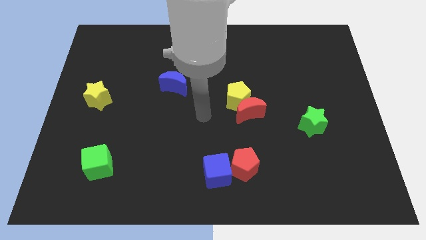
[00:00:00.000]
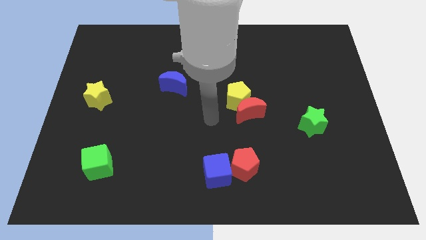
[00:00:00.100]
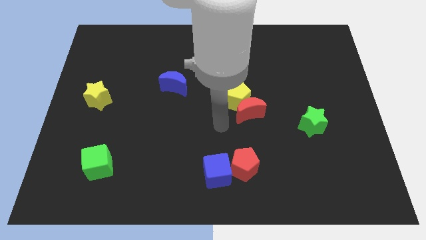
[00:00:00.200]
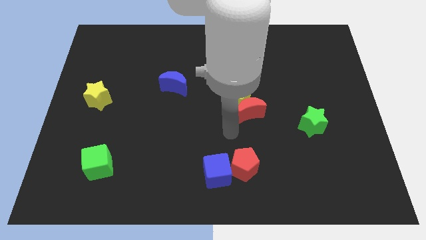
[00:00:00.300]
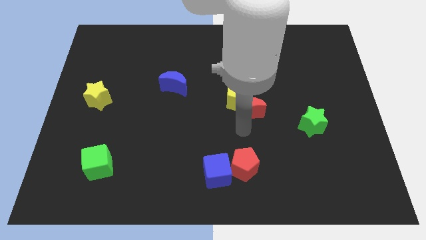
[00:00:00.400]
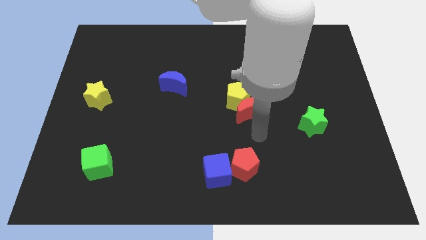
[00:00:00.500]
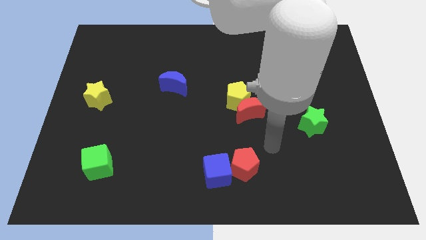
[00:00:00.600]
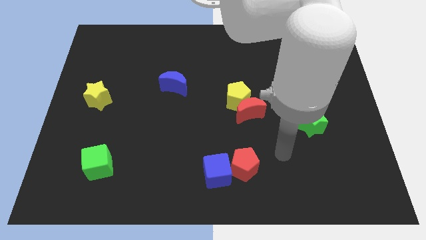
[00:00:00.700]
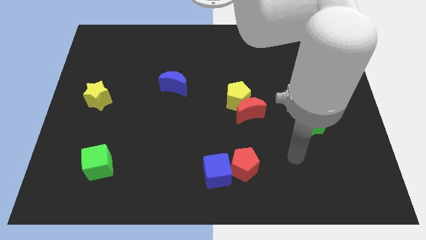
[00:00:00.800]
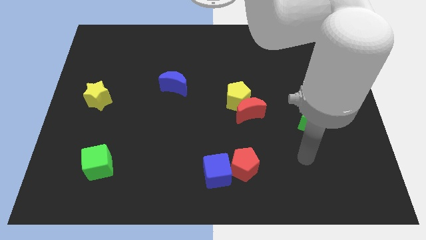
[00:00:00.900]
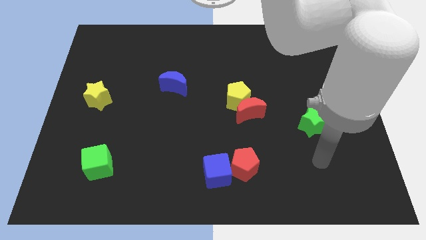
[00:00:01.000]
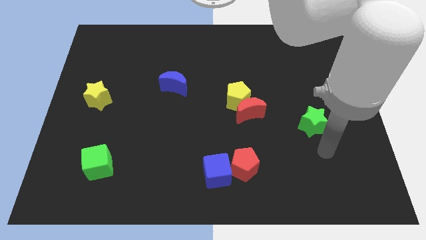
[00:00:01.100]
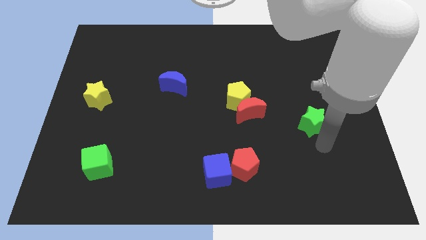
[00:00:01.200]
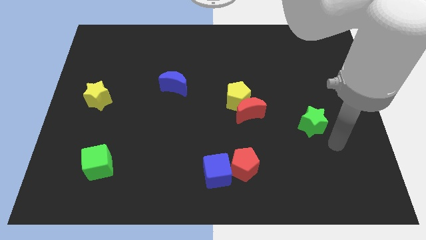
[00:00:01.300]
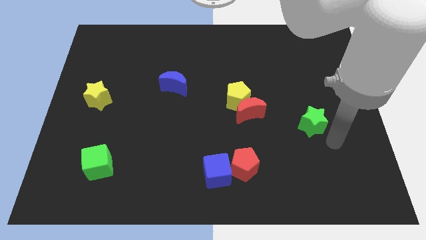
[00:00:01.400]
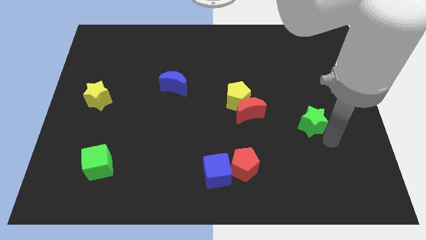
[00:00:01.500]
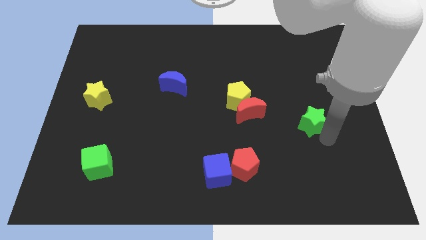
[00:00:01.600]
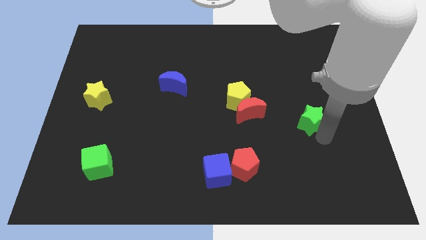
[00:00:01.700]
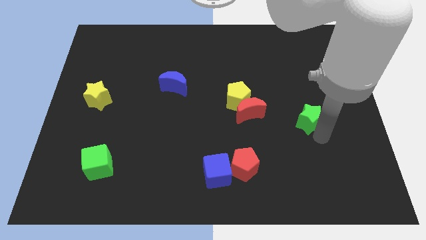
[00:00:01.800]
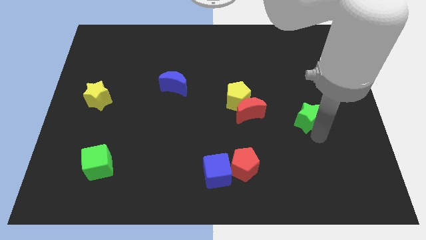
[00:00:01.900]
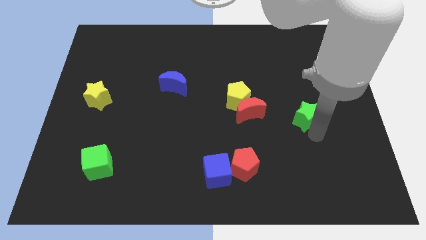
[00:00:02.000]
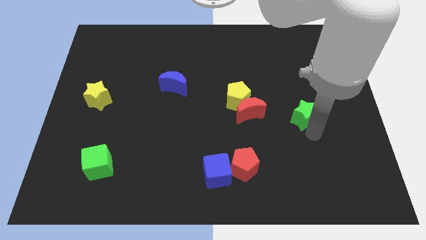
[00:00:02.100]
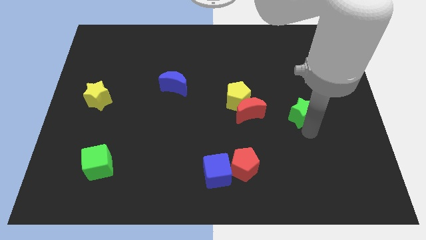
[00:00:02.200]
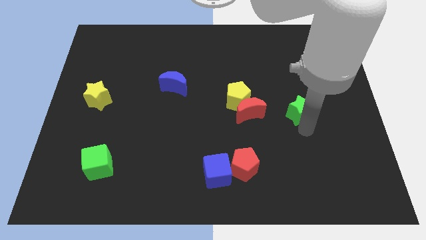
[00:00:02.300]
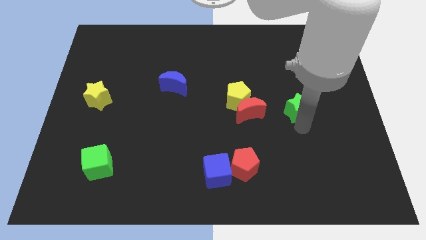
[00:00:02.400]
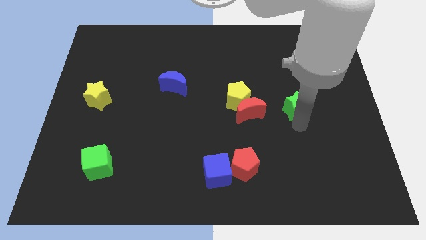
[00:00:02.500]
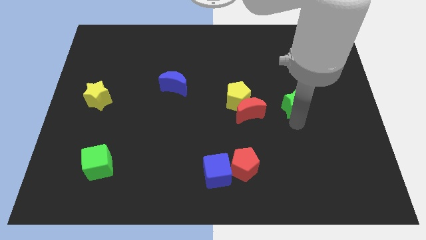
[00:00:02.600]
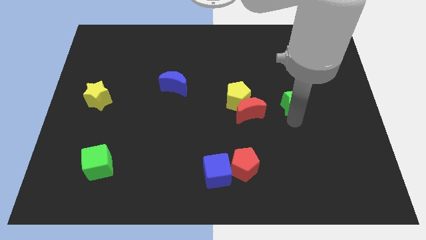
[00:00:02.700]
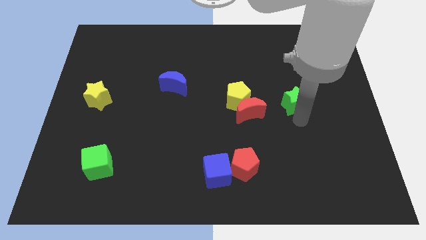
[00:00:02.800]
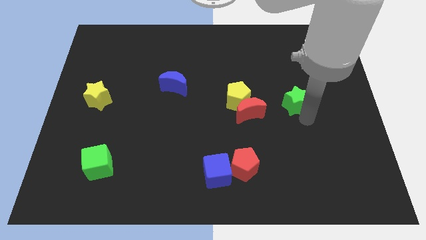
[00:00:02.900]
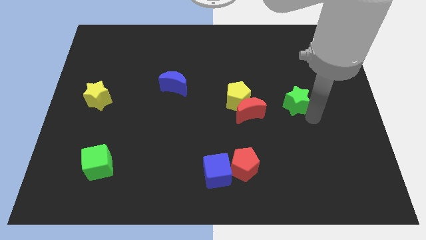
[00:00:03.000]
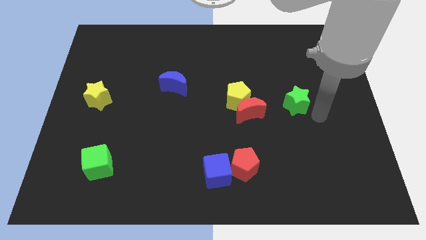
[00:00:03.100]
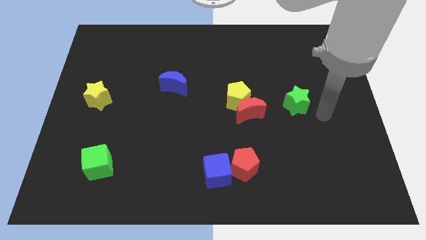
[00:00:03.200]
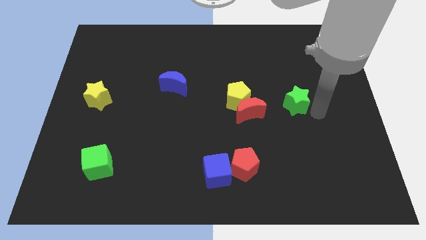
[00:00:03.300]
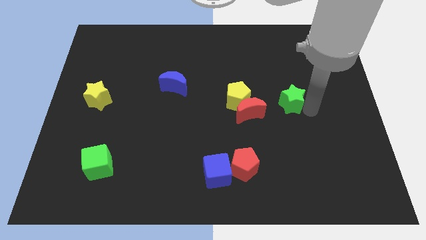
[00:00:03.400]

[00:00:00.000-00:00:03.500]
push the green star up and then to the left a little bit

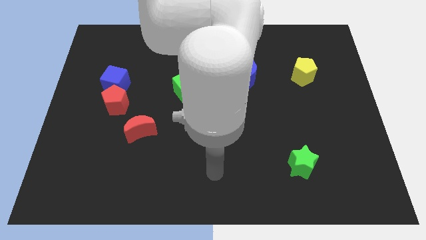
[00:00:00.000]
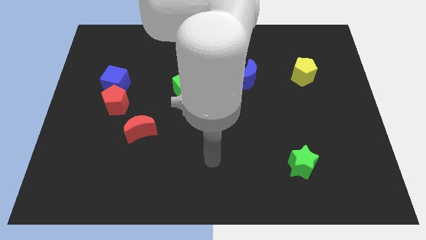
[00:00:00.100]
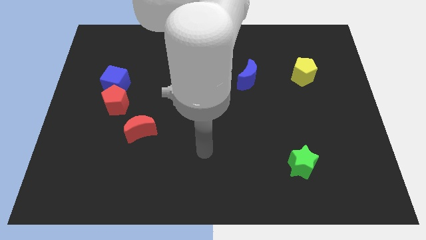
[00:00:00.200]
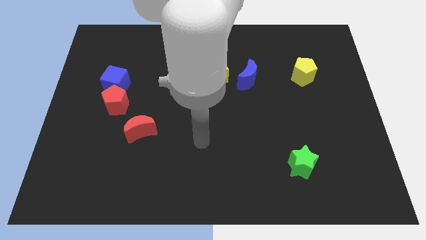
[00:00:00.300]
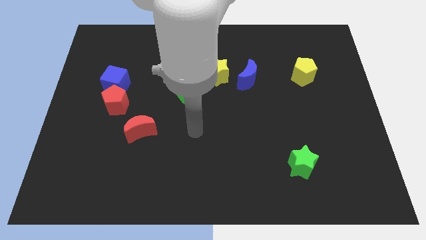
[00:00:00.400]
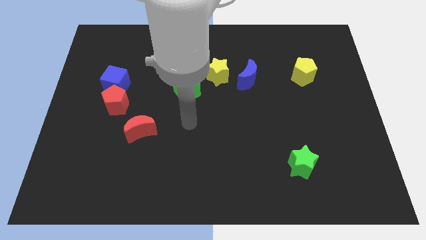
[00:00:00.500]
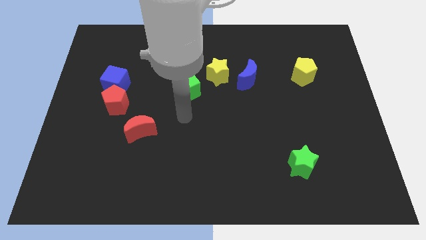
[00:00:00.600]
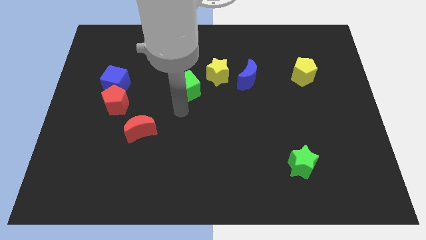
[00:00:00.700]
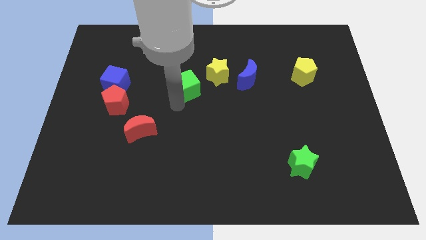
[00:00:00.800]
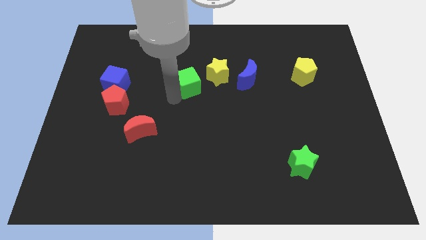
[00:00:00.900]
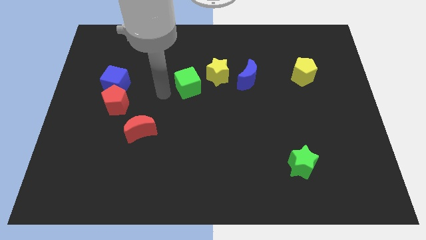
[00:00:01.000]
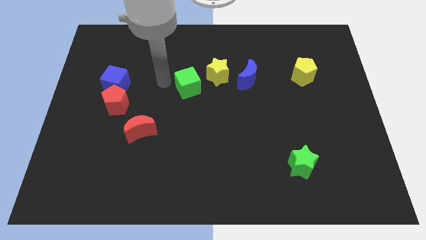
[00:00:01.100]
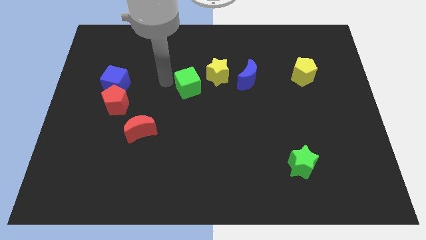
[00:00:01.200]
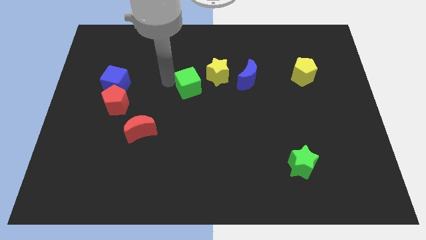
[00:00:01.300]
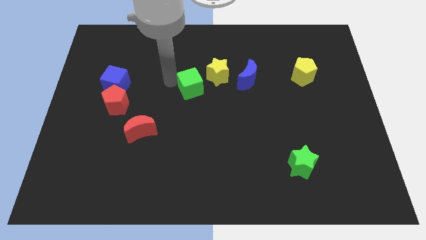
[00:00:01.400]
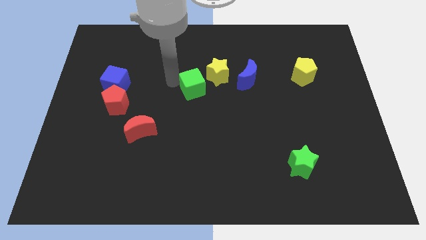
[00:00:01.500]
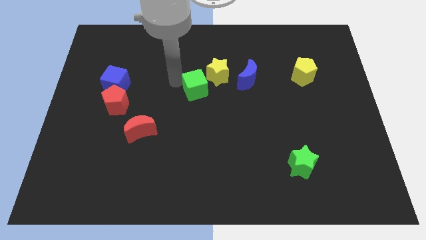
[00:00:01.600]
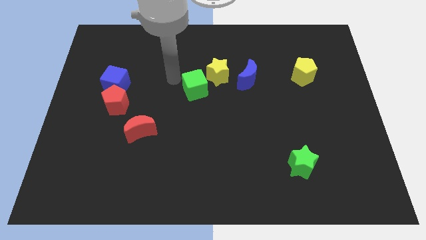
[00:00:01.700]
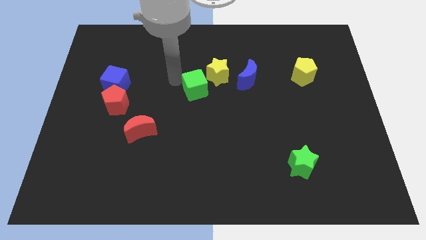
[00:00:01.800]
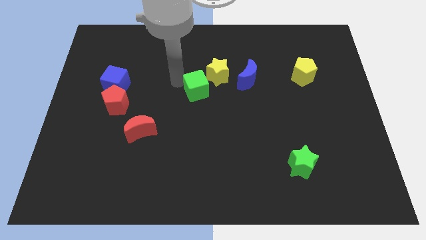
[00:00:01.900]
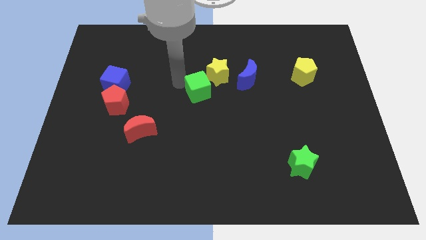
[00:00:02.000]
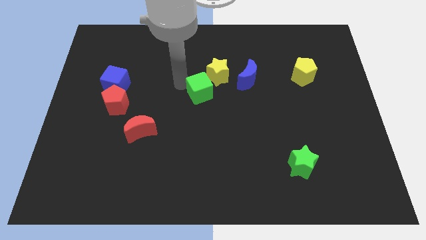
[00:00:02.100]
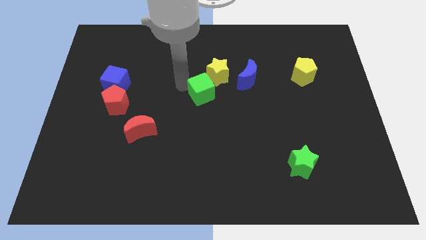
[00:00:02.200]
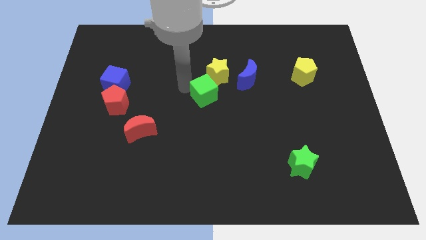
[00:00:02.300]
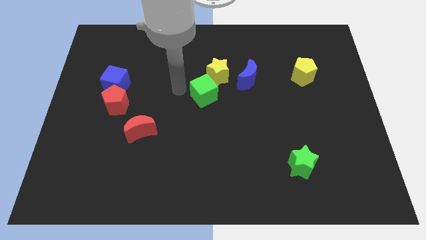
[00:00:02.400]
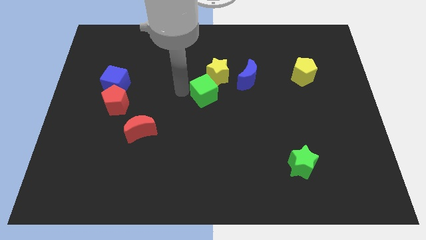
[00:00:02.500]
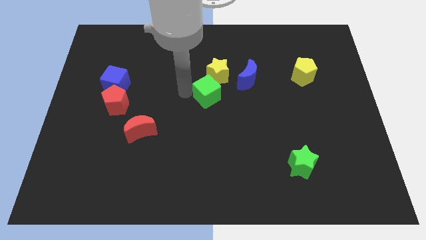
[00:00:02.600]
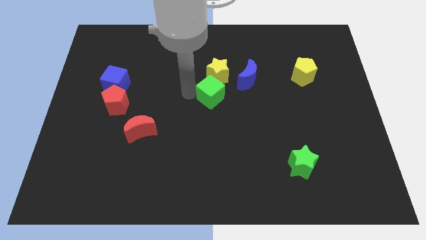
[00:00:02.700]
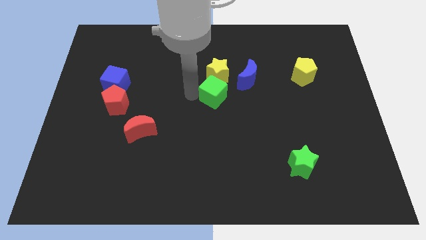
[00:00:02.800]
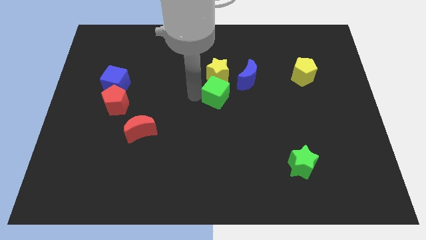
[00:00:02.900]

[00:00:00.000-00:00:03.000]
slightly slide the green cube right

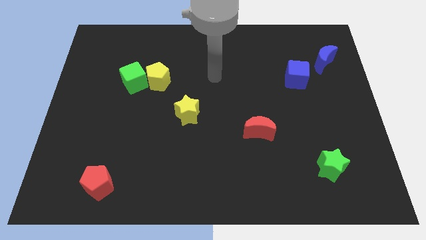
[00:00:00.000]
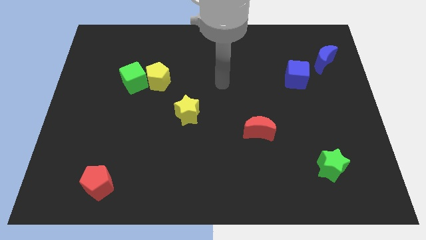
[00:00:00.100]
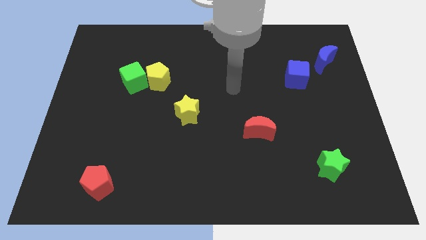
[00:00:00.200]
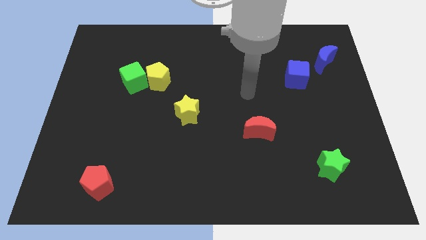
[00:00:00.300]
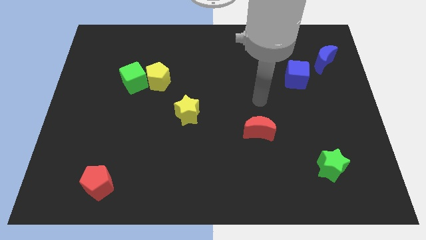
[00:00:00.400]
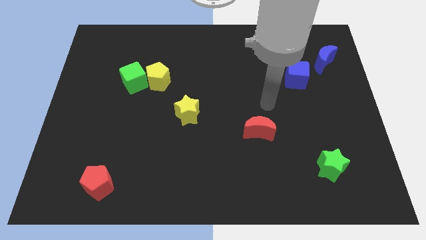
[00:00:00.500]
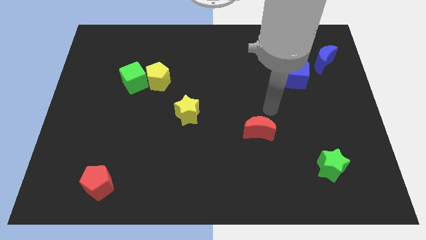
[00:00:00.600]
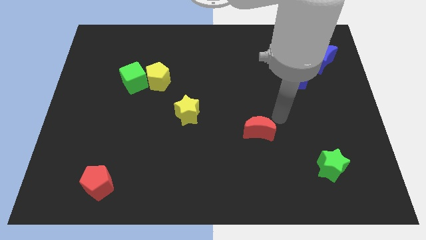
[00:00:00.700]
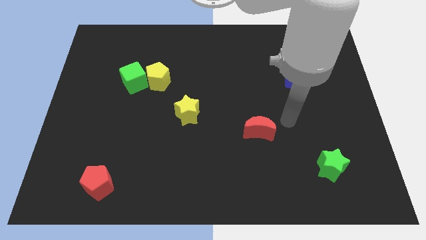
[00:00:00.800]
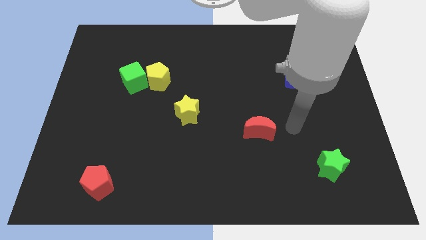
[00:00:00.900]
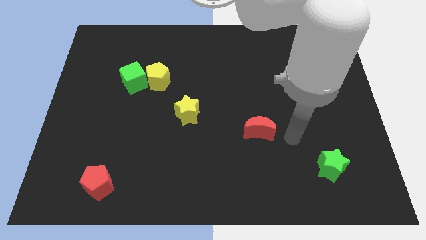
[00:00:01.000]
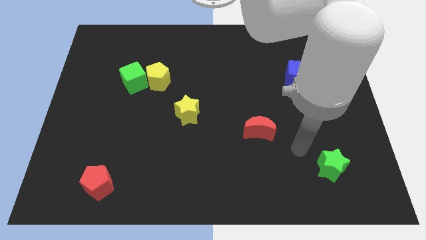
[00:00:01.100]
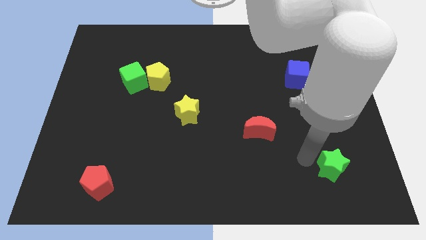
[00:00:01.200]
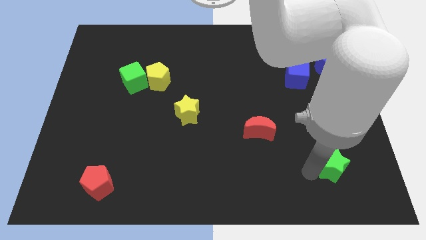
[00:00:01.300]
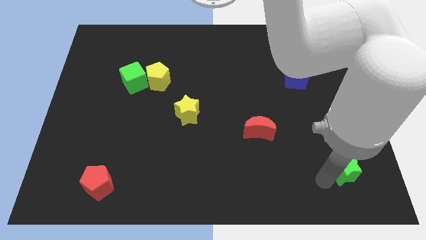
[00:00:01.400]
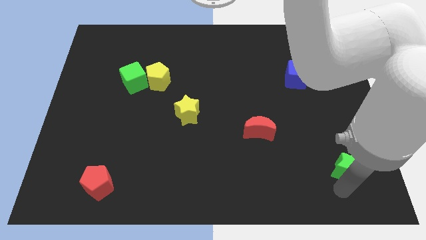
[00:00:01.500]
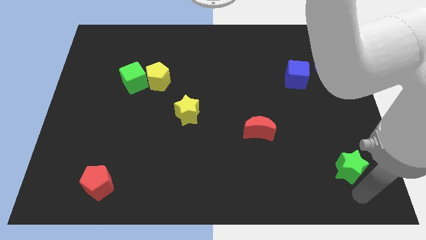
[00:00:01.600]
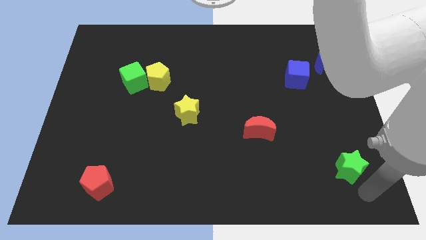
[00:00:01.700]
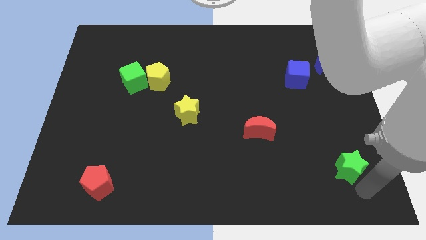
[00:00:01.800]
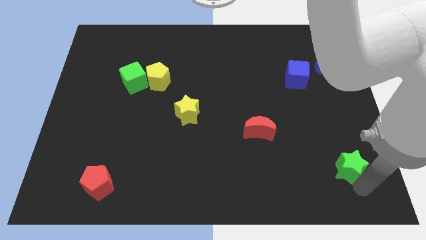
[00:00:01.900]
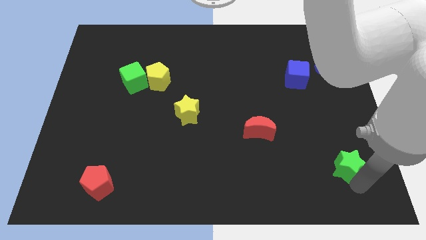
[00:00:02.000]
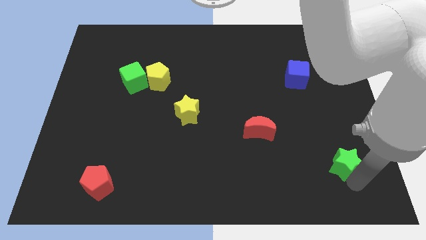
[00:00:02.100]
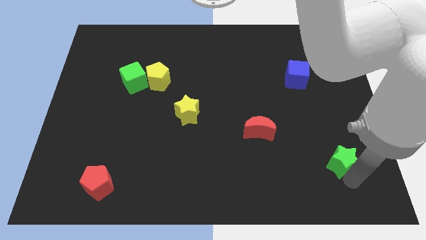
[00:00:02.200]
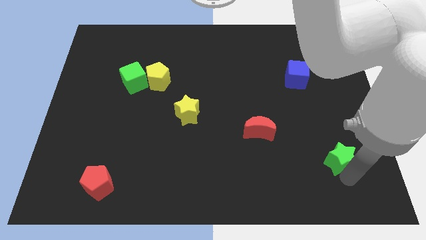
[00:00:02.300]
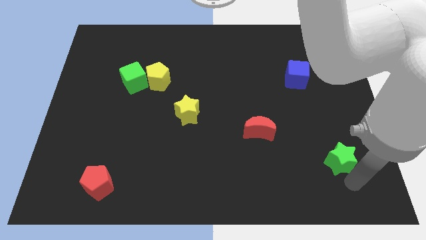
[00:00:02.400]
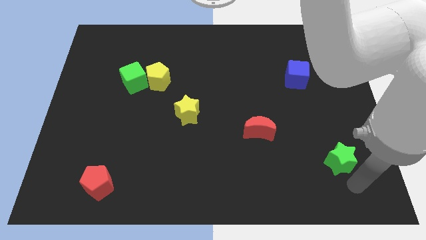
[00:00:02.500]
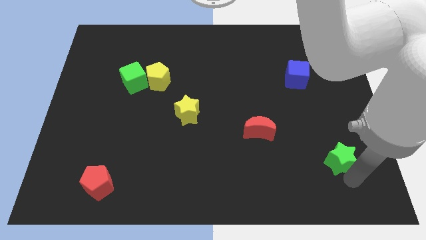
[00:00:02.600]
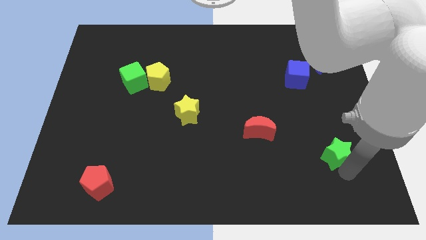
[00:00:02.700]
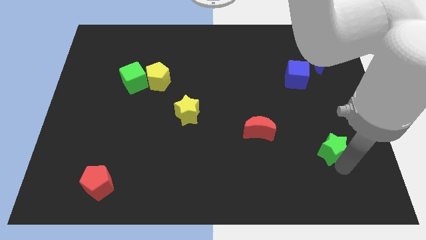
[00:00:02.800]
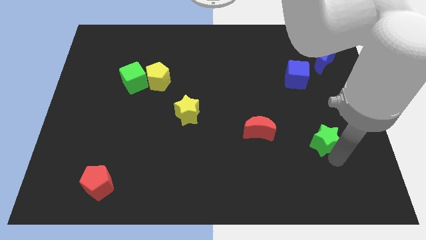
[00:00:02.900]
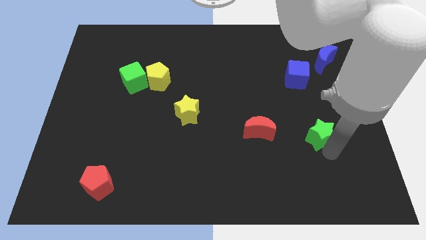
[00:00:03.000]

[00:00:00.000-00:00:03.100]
move the green star slightly upwards
